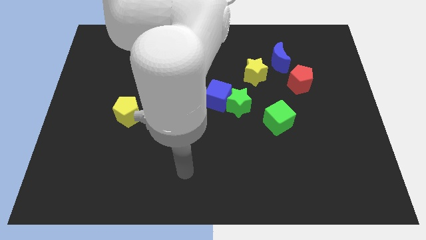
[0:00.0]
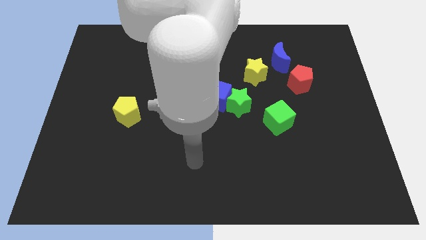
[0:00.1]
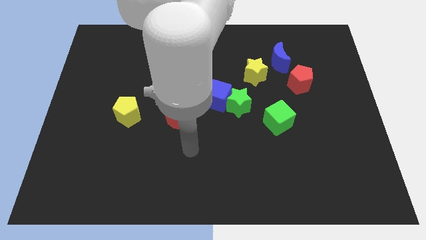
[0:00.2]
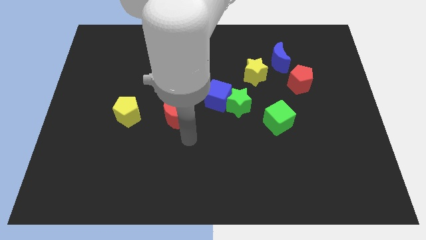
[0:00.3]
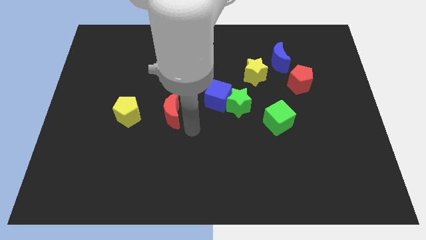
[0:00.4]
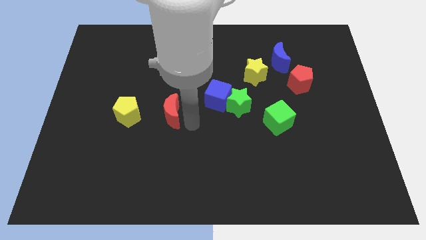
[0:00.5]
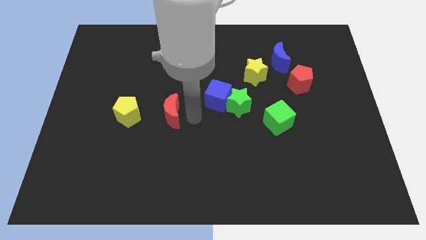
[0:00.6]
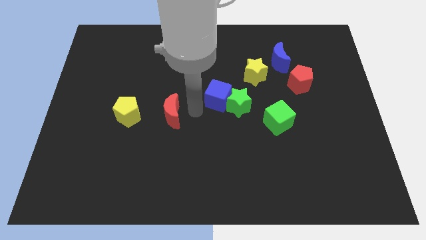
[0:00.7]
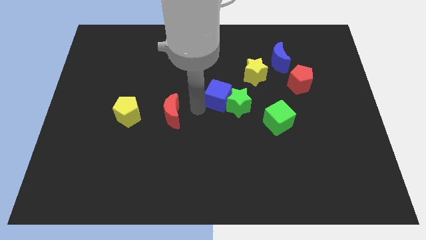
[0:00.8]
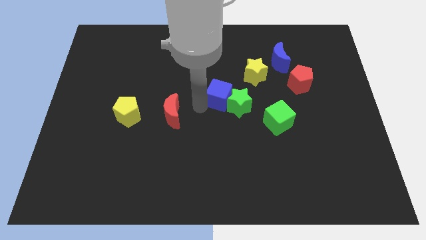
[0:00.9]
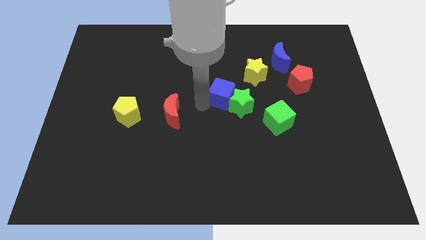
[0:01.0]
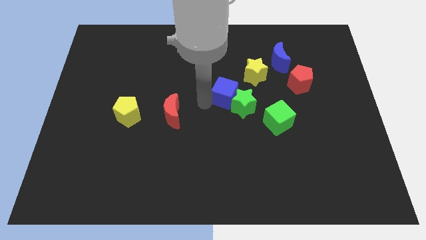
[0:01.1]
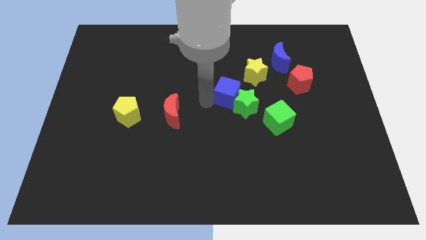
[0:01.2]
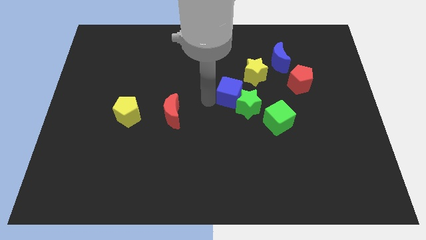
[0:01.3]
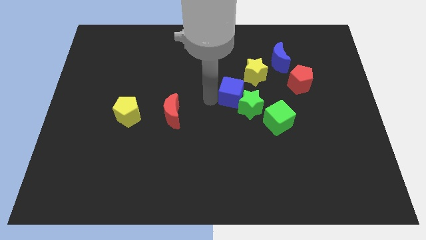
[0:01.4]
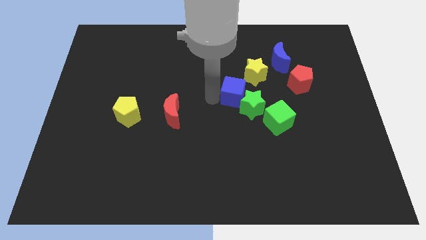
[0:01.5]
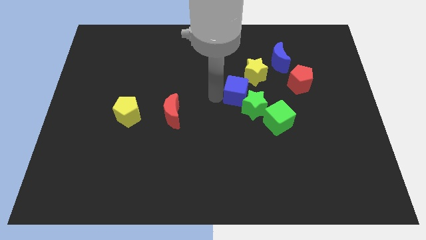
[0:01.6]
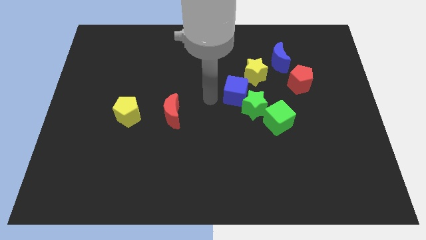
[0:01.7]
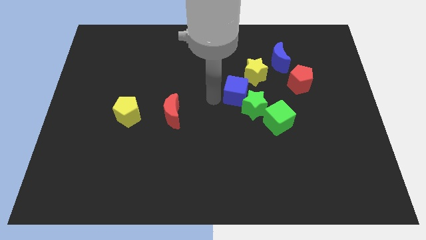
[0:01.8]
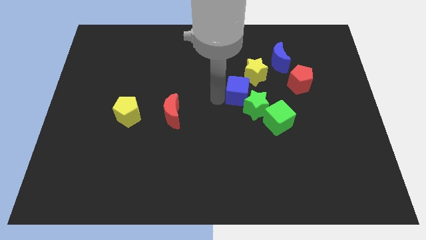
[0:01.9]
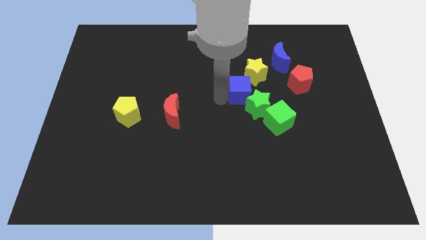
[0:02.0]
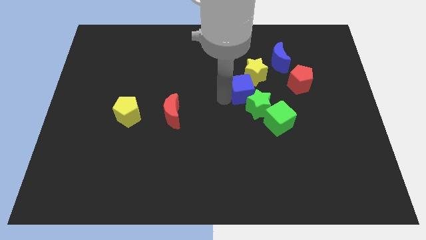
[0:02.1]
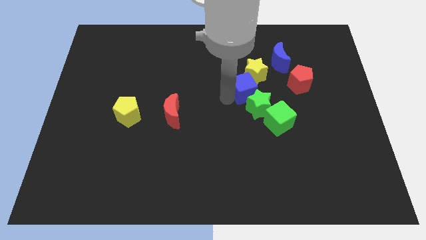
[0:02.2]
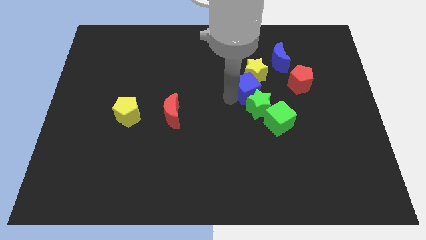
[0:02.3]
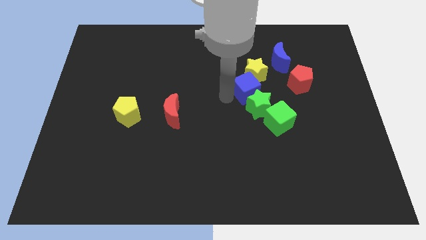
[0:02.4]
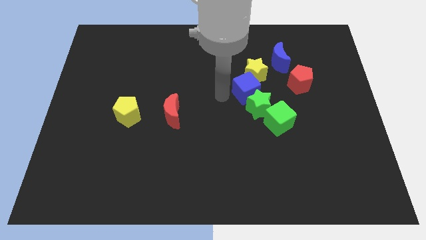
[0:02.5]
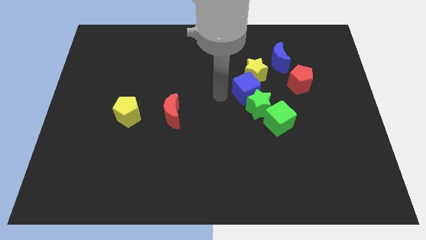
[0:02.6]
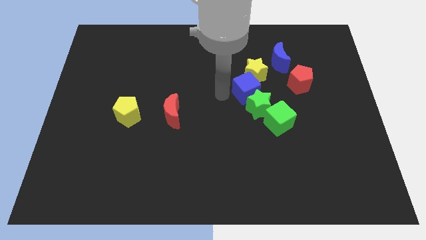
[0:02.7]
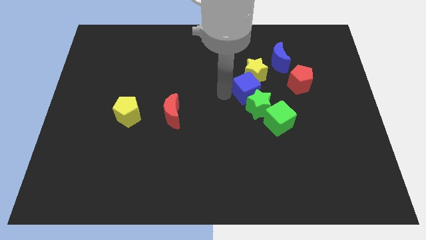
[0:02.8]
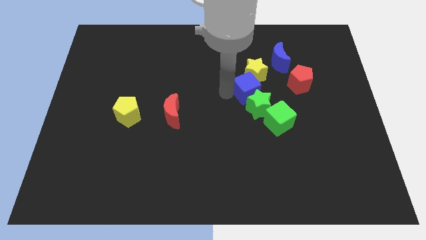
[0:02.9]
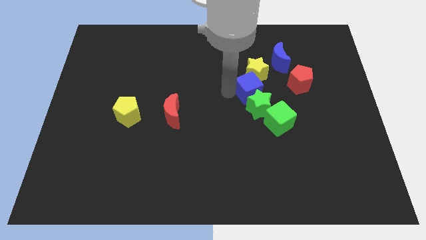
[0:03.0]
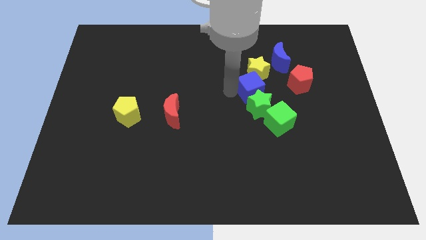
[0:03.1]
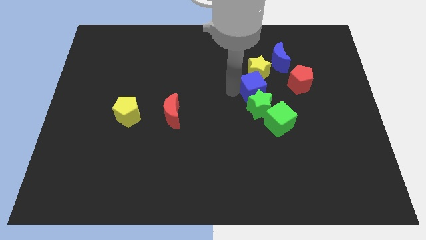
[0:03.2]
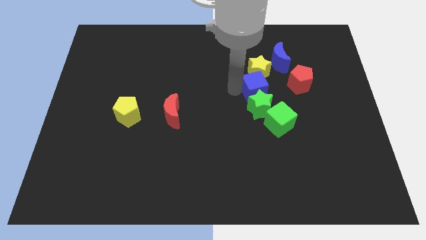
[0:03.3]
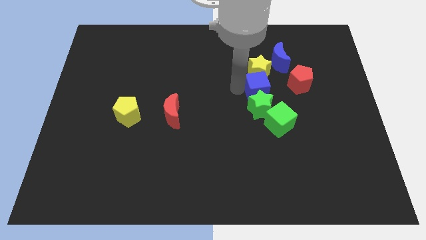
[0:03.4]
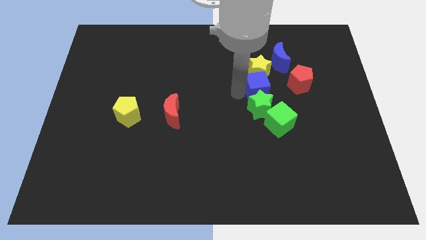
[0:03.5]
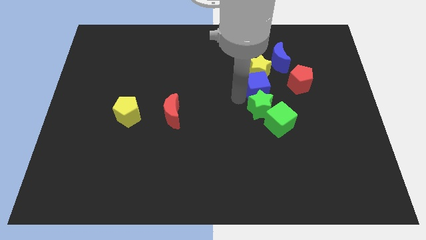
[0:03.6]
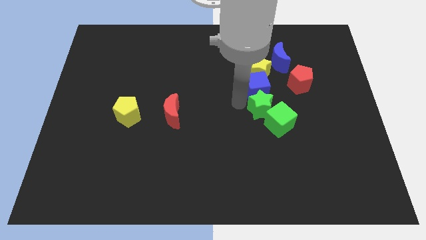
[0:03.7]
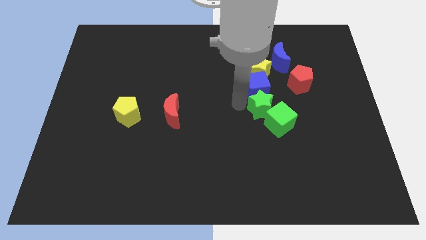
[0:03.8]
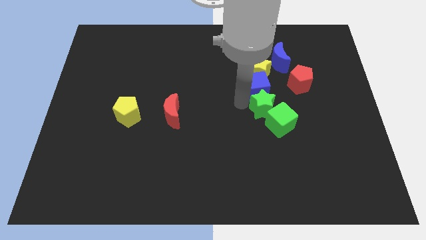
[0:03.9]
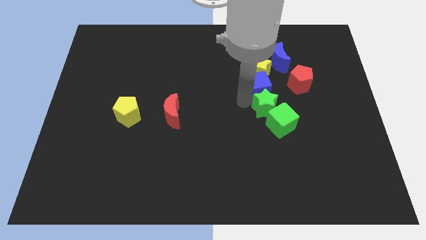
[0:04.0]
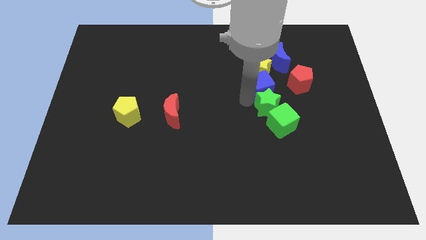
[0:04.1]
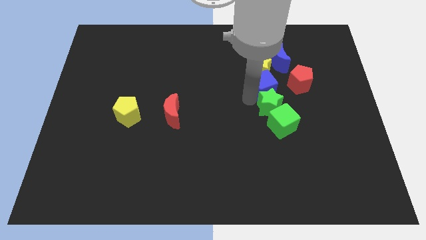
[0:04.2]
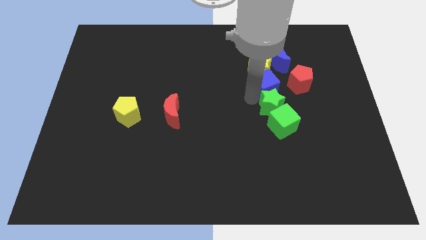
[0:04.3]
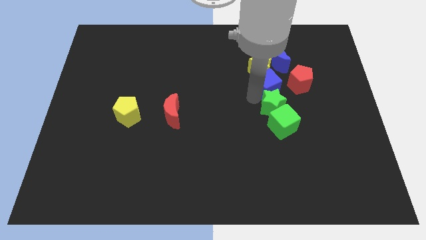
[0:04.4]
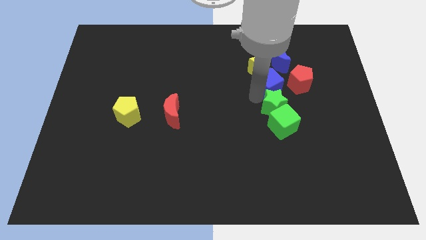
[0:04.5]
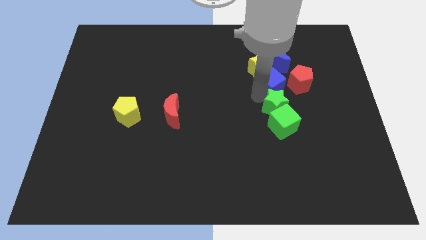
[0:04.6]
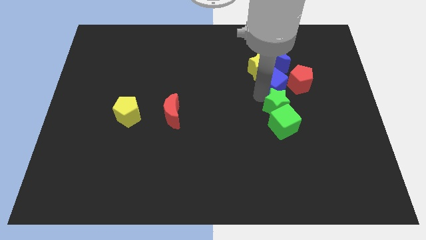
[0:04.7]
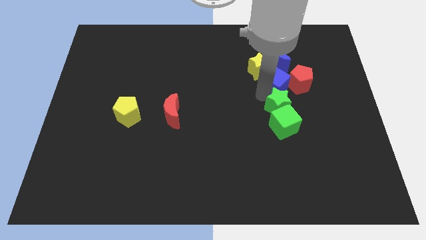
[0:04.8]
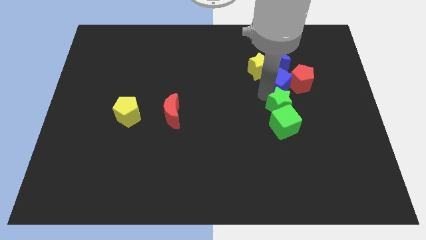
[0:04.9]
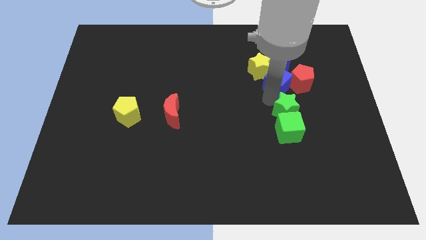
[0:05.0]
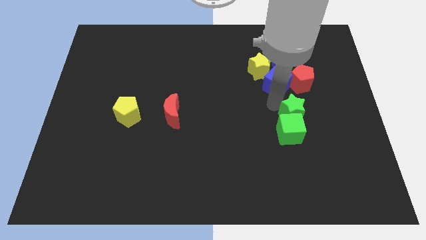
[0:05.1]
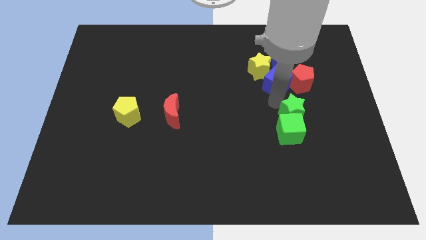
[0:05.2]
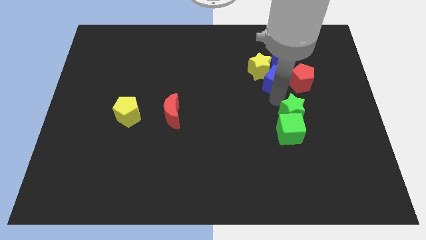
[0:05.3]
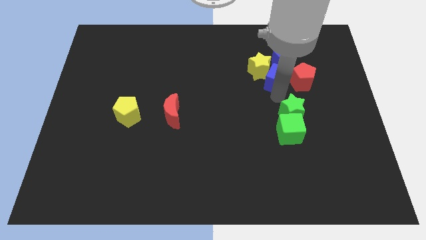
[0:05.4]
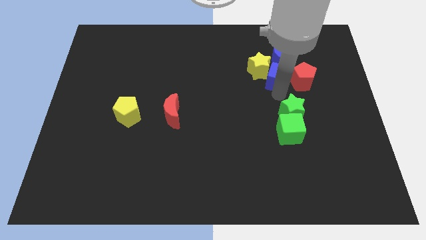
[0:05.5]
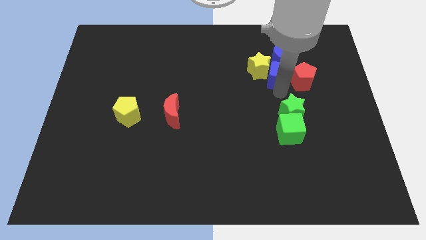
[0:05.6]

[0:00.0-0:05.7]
move the blue cube close to the blue moon
